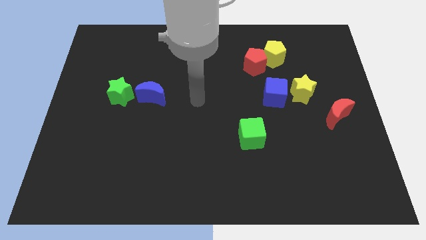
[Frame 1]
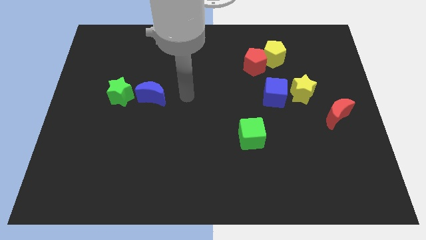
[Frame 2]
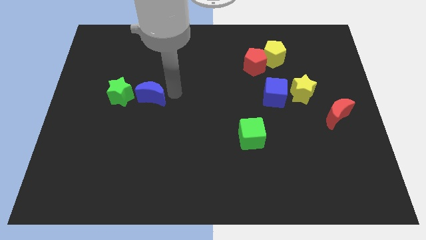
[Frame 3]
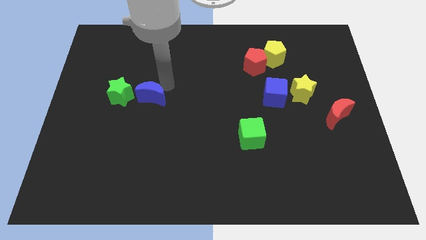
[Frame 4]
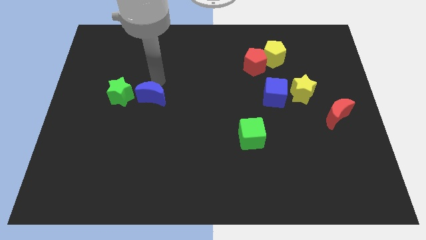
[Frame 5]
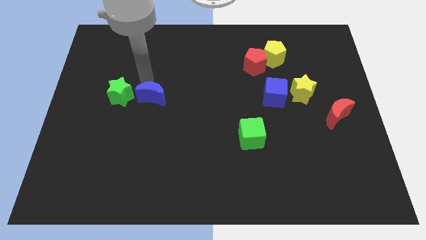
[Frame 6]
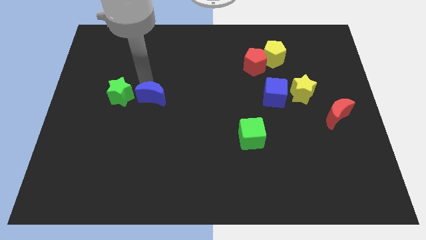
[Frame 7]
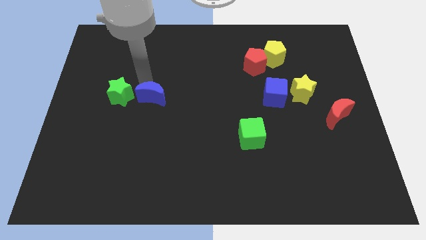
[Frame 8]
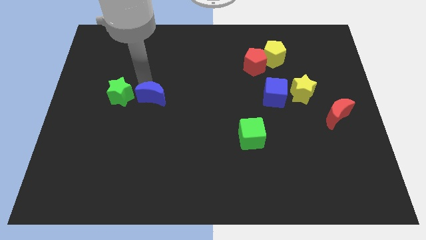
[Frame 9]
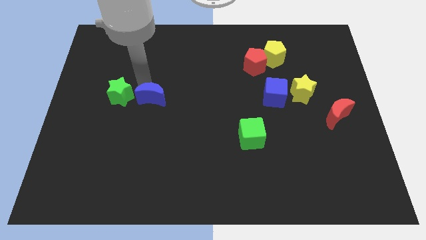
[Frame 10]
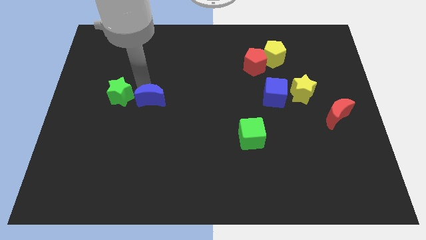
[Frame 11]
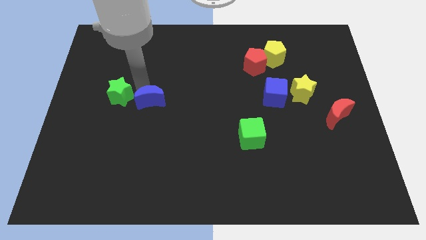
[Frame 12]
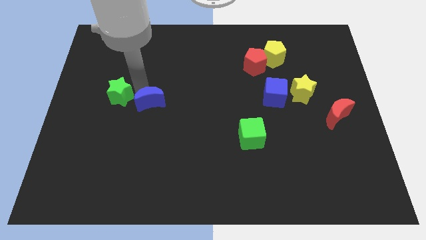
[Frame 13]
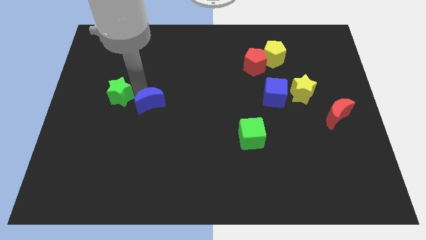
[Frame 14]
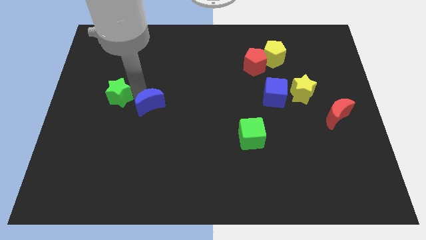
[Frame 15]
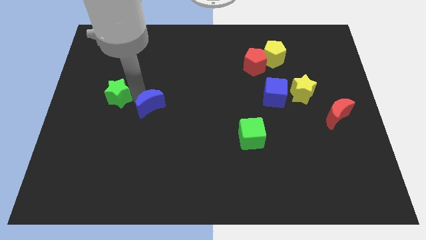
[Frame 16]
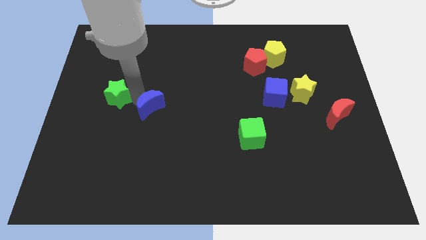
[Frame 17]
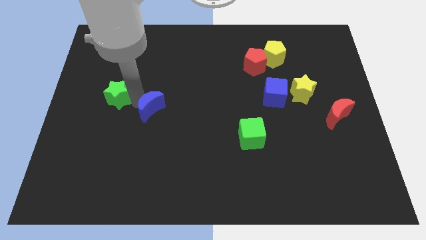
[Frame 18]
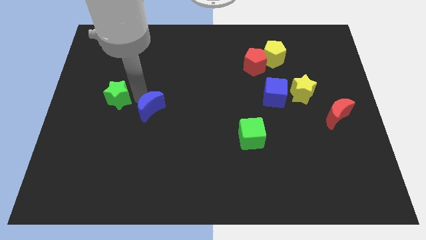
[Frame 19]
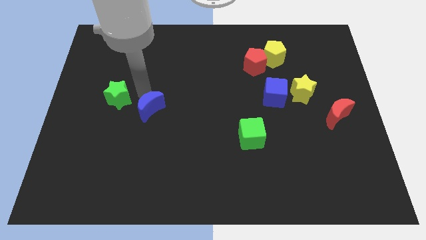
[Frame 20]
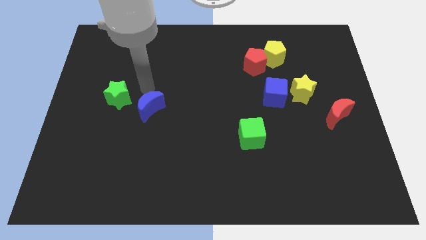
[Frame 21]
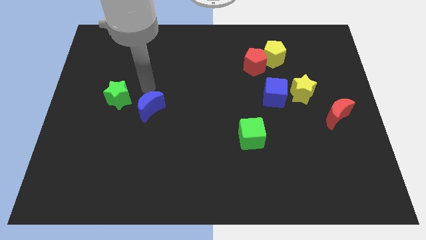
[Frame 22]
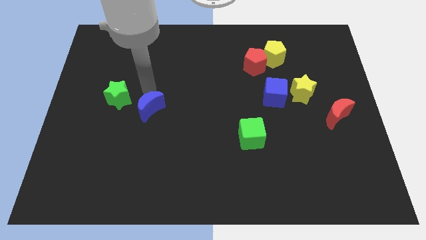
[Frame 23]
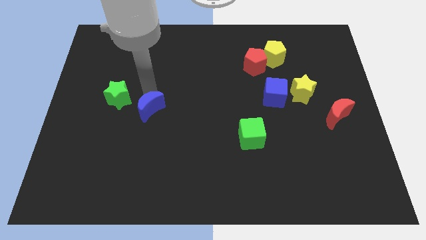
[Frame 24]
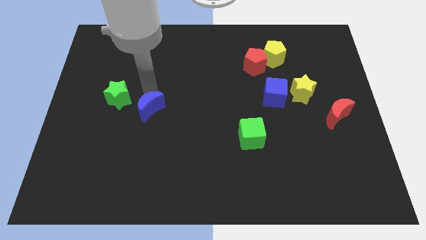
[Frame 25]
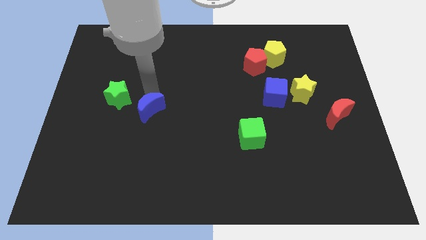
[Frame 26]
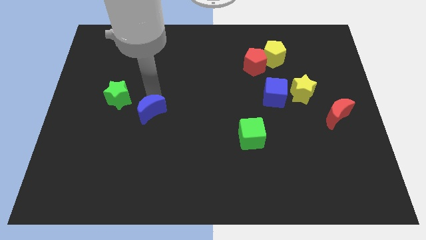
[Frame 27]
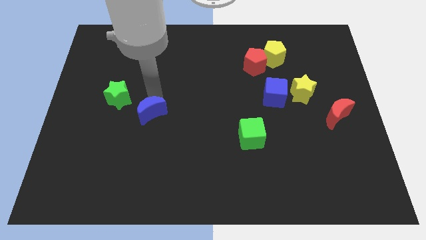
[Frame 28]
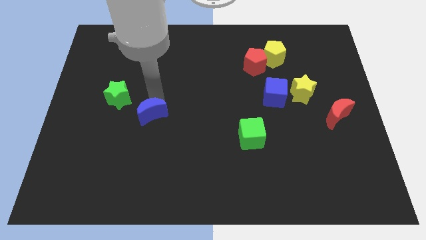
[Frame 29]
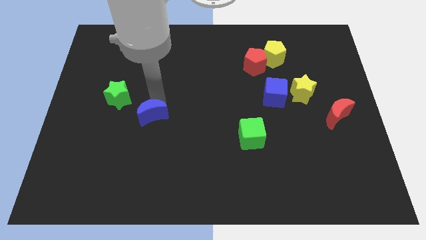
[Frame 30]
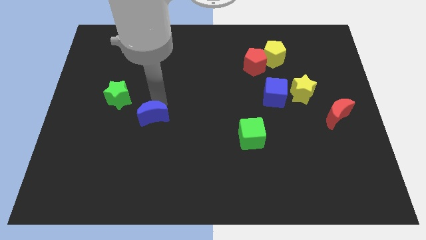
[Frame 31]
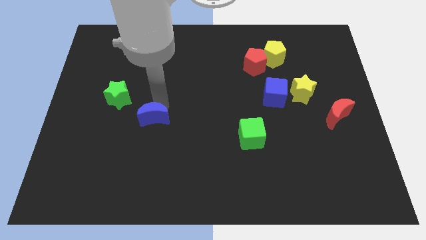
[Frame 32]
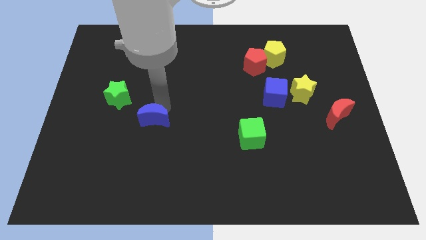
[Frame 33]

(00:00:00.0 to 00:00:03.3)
slide the blue moon downwards a little

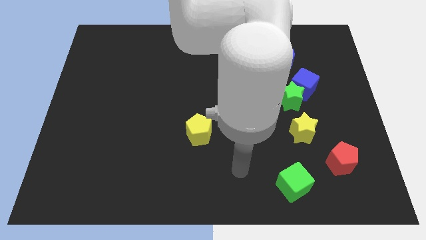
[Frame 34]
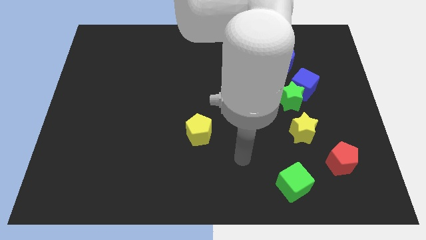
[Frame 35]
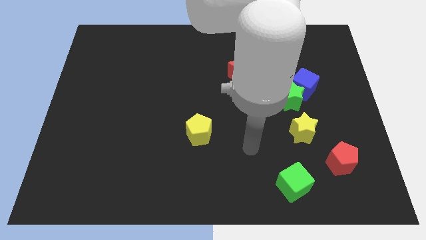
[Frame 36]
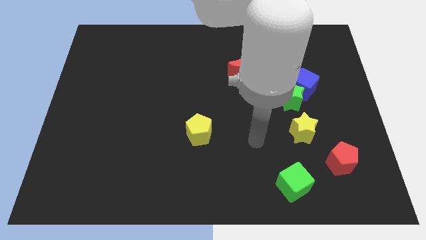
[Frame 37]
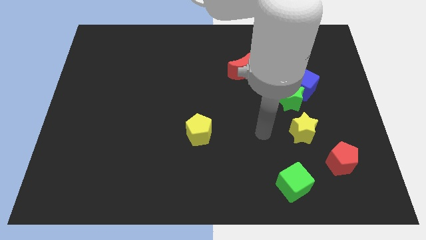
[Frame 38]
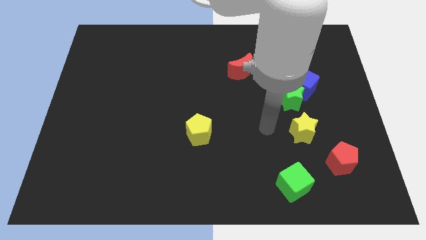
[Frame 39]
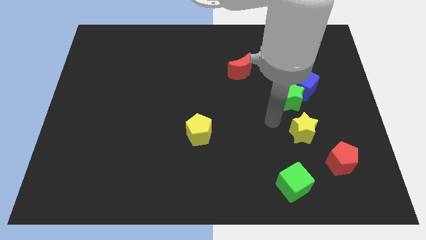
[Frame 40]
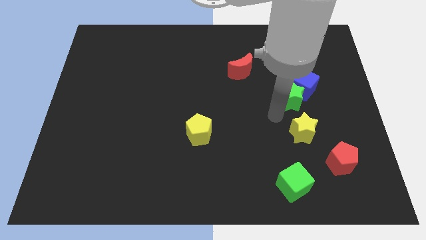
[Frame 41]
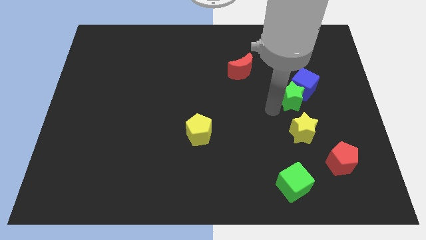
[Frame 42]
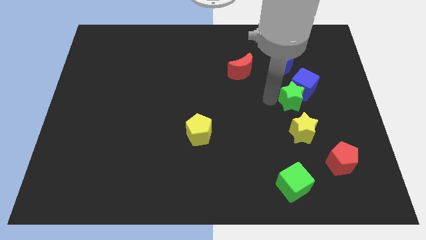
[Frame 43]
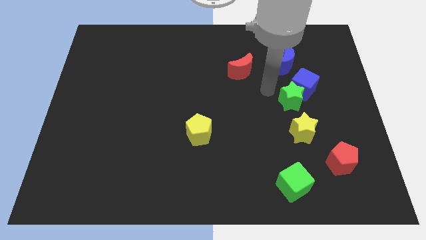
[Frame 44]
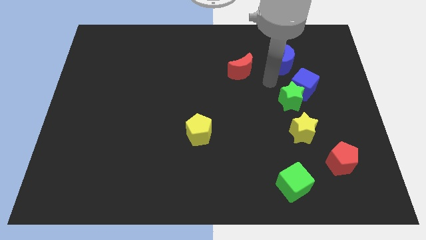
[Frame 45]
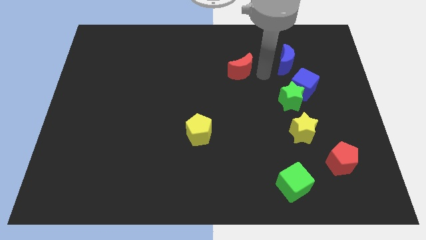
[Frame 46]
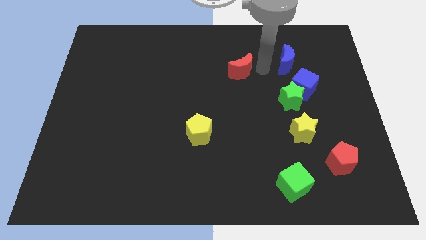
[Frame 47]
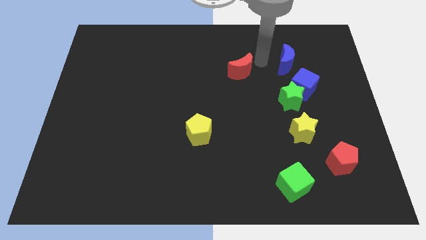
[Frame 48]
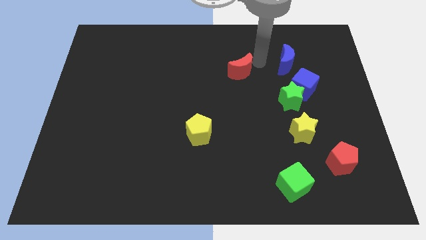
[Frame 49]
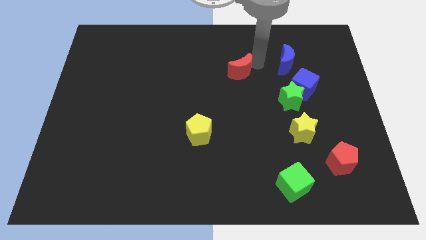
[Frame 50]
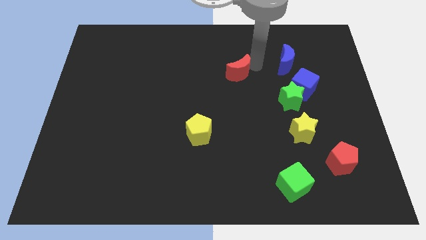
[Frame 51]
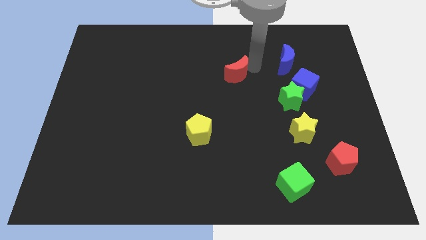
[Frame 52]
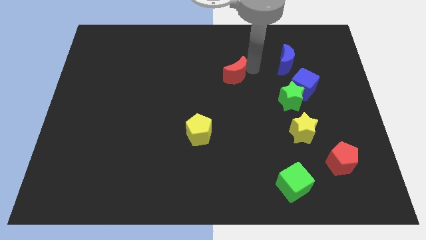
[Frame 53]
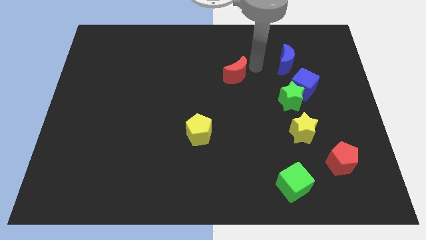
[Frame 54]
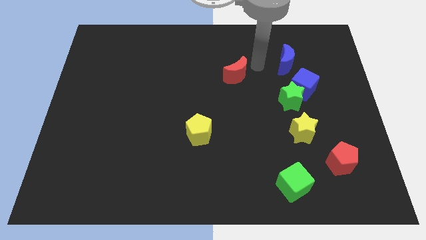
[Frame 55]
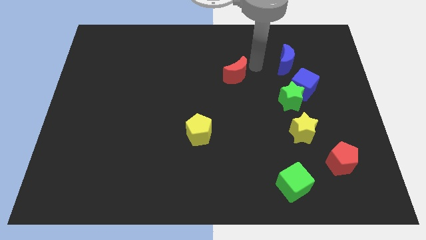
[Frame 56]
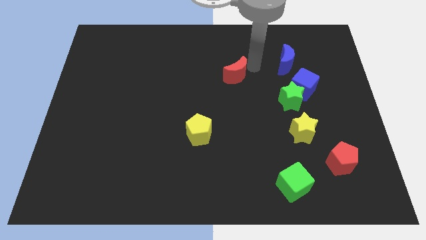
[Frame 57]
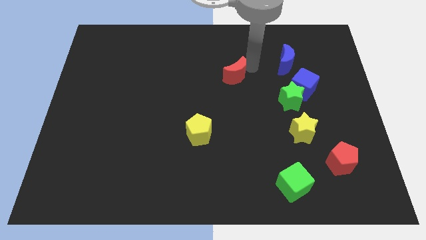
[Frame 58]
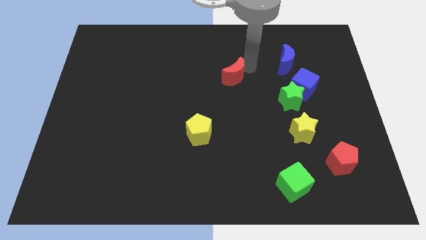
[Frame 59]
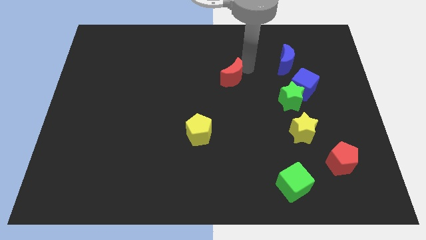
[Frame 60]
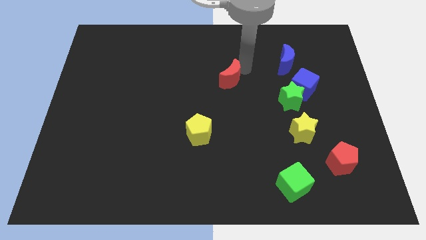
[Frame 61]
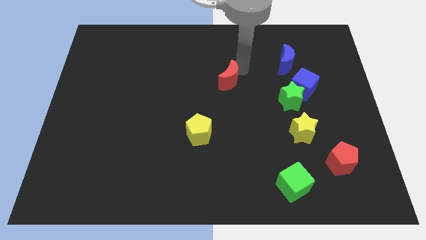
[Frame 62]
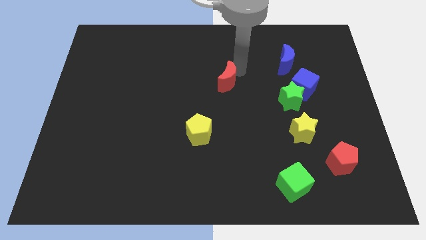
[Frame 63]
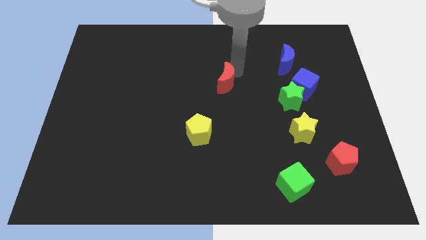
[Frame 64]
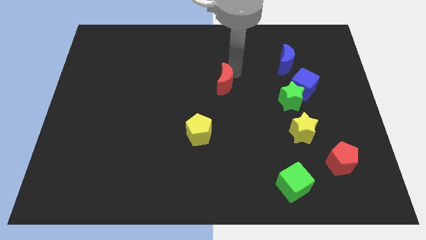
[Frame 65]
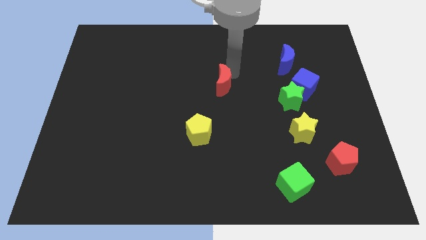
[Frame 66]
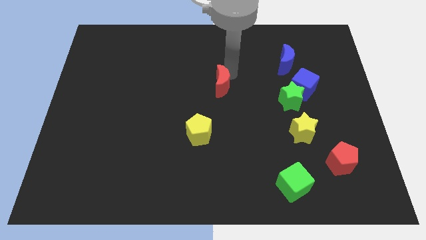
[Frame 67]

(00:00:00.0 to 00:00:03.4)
slightly push the red moon diagonally downwards and to the left

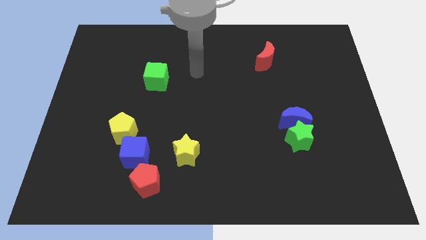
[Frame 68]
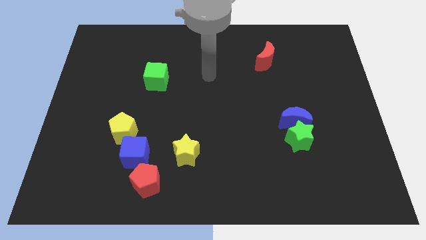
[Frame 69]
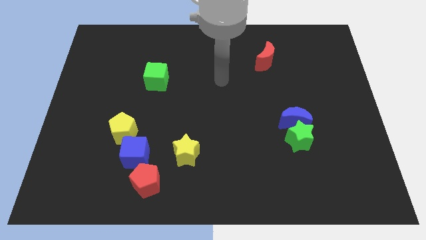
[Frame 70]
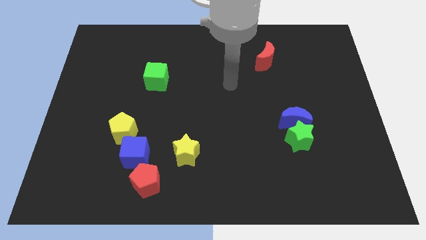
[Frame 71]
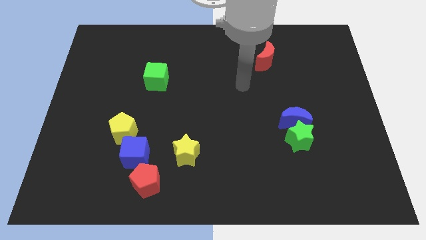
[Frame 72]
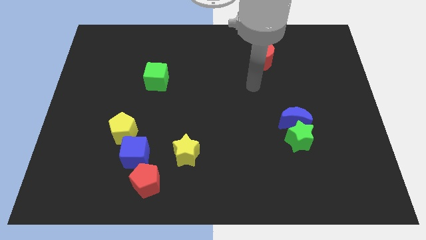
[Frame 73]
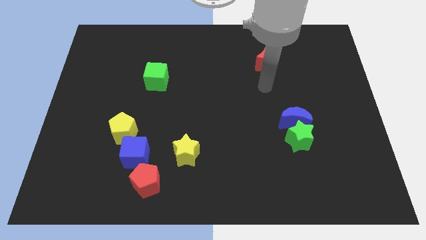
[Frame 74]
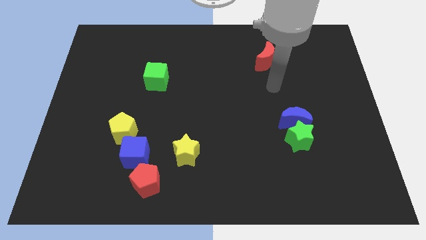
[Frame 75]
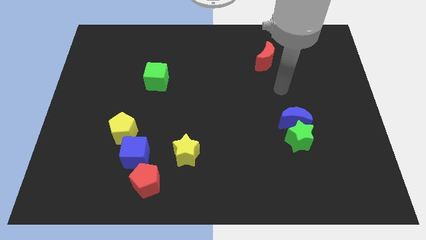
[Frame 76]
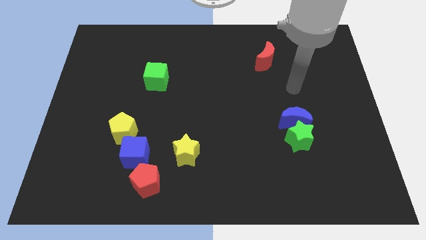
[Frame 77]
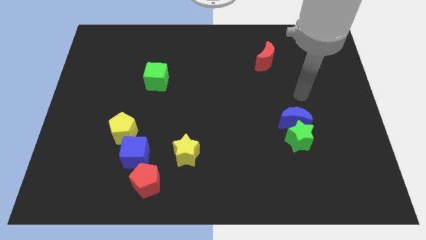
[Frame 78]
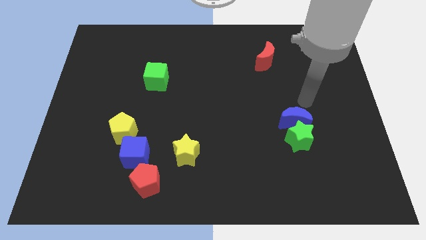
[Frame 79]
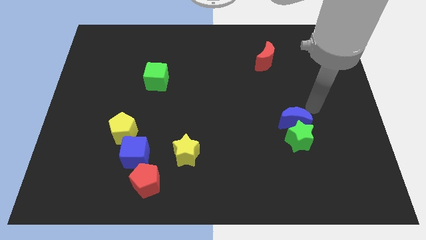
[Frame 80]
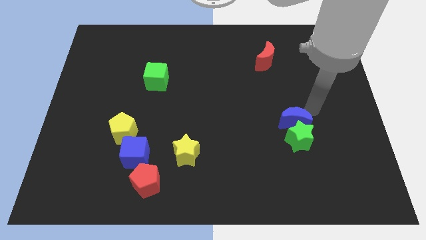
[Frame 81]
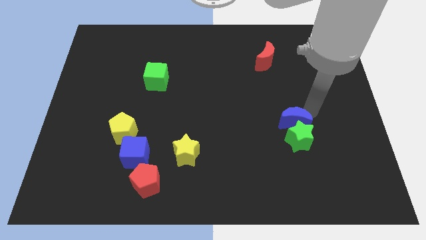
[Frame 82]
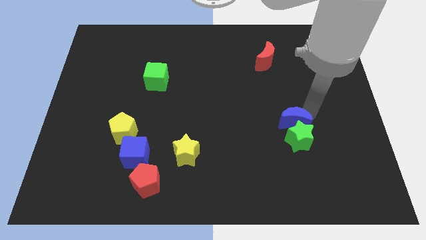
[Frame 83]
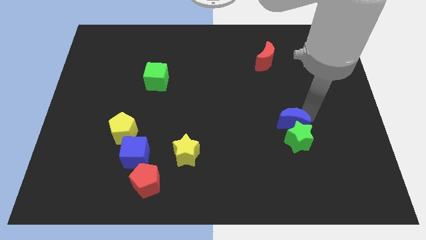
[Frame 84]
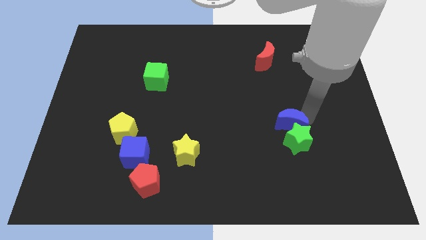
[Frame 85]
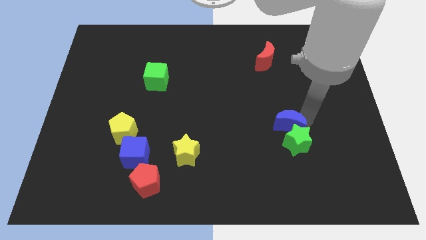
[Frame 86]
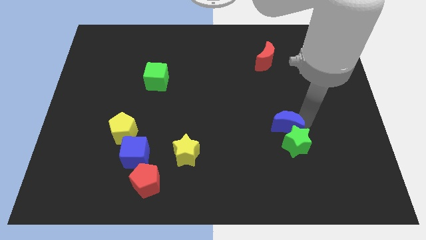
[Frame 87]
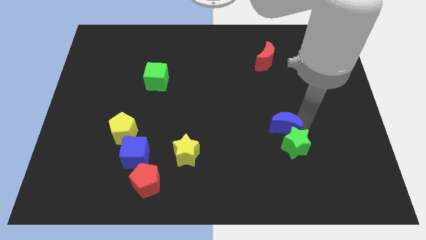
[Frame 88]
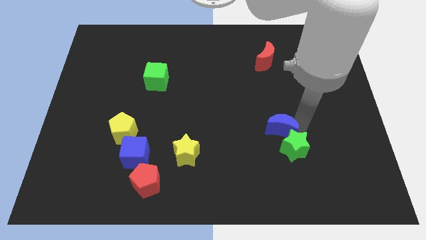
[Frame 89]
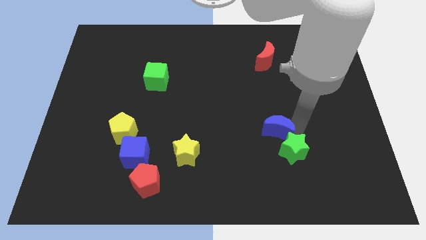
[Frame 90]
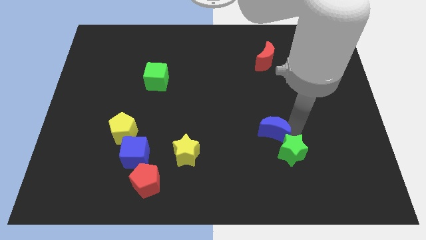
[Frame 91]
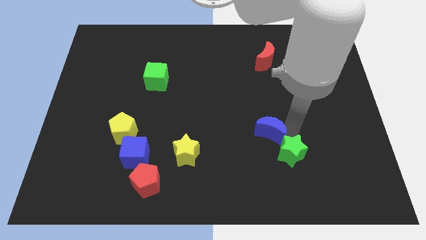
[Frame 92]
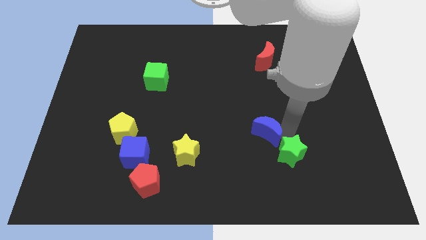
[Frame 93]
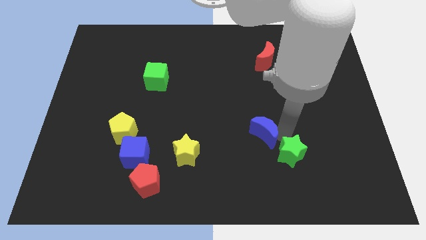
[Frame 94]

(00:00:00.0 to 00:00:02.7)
slightly push the blue moon downwards and then to the left
